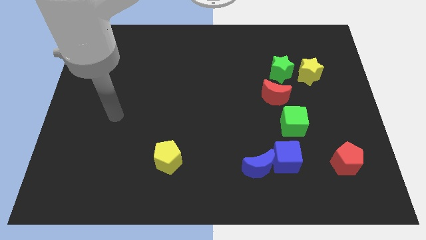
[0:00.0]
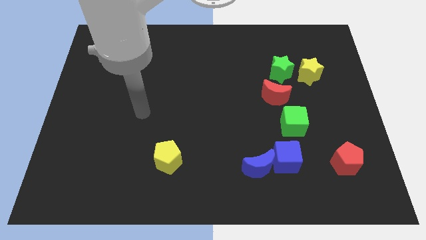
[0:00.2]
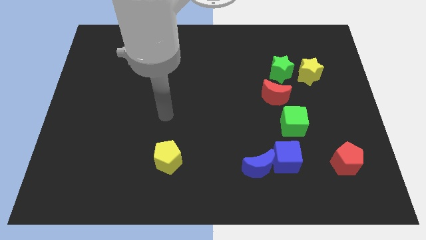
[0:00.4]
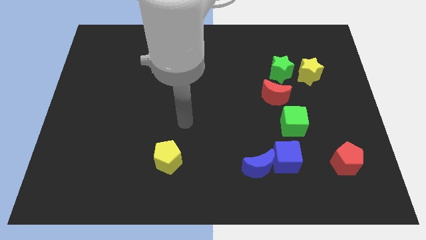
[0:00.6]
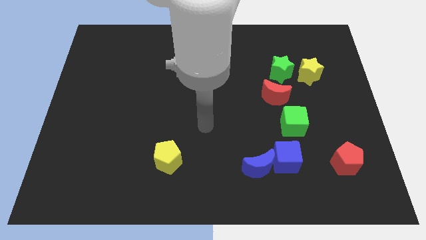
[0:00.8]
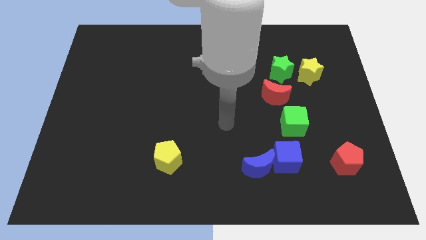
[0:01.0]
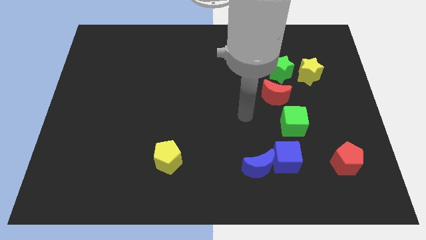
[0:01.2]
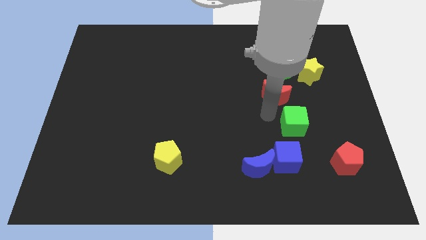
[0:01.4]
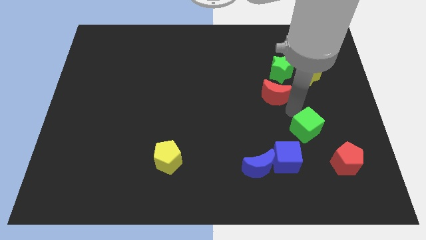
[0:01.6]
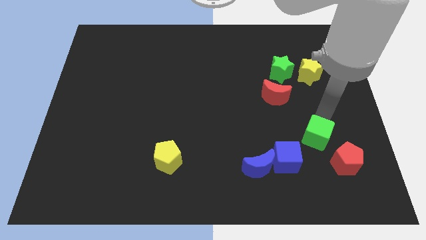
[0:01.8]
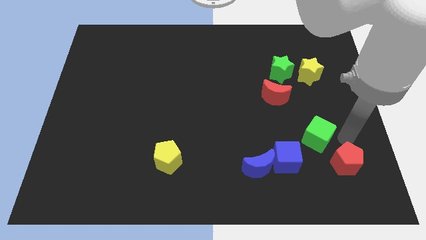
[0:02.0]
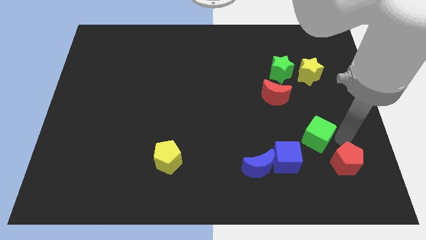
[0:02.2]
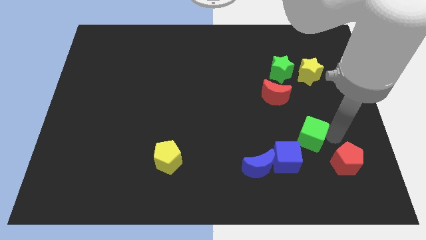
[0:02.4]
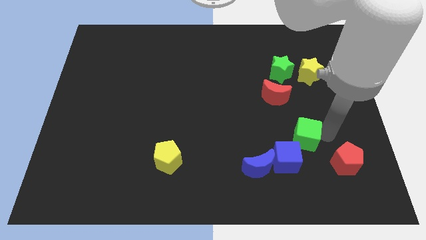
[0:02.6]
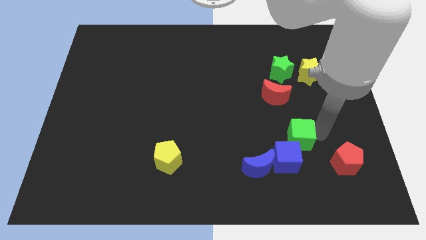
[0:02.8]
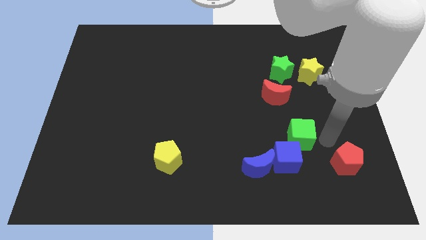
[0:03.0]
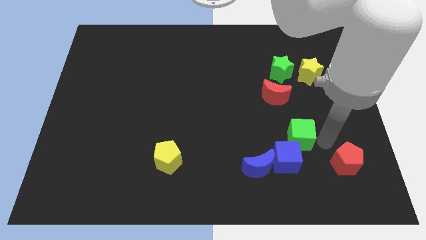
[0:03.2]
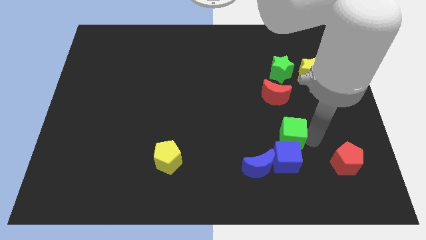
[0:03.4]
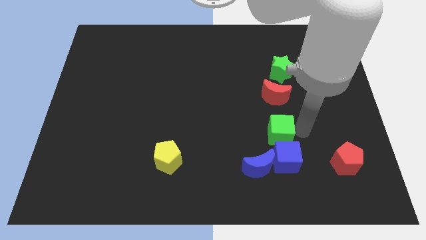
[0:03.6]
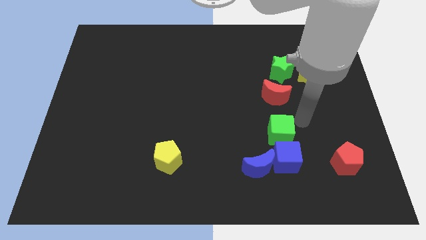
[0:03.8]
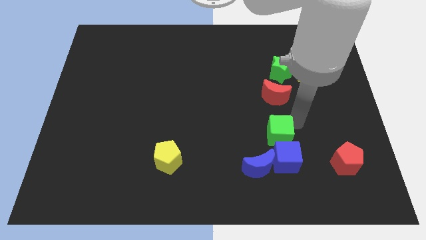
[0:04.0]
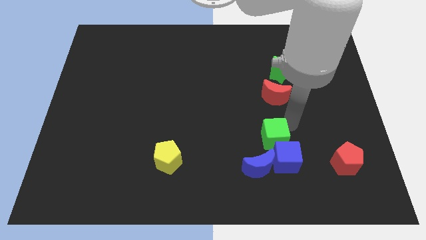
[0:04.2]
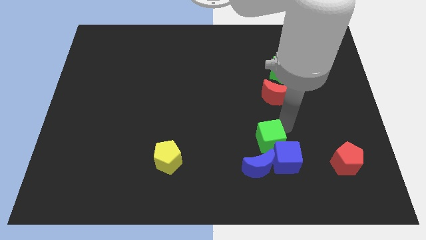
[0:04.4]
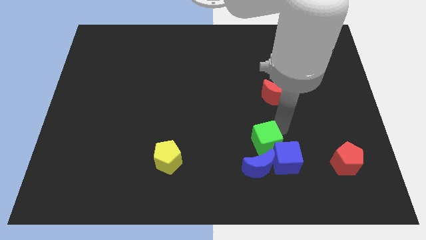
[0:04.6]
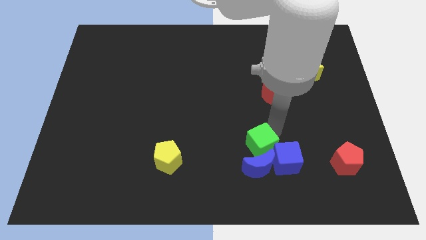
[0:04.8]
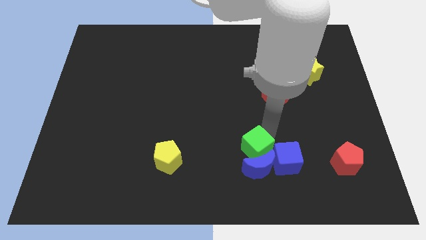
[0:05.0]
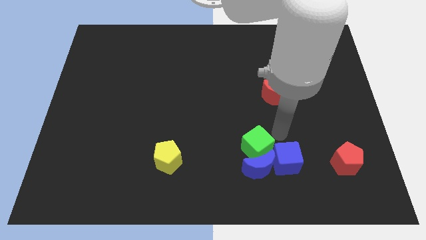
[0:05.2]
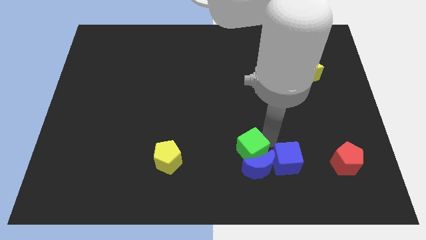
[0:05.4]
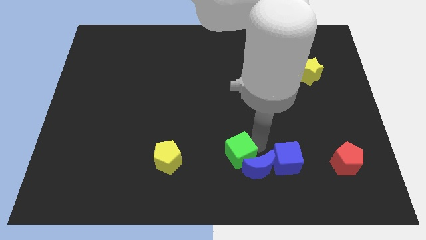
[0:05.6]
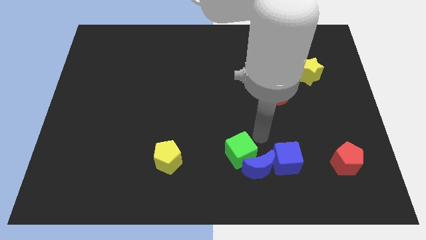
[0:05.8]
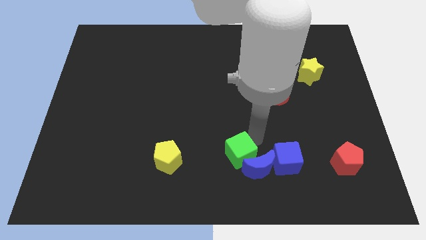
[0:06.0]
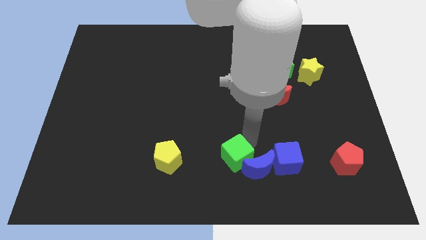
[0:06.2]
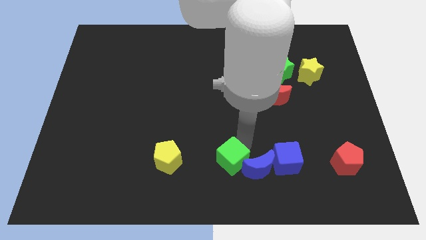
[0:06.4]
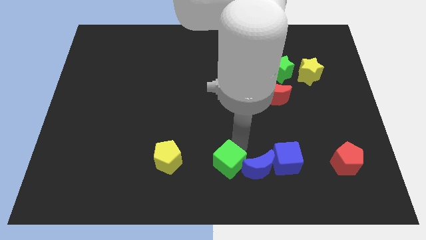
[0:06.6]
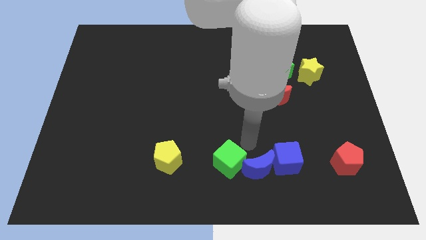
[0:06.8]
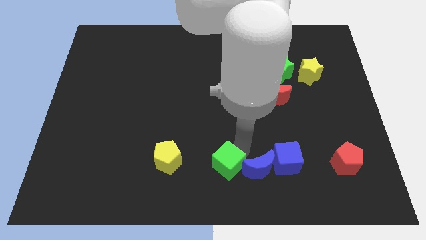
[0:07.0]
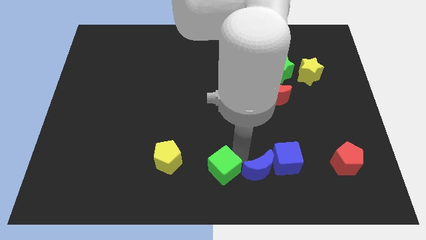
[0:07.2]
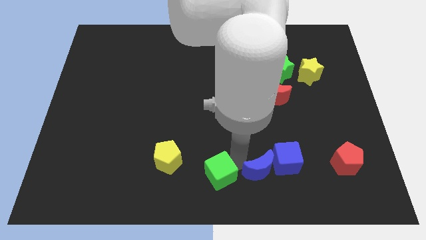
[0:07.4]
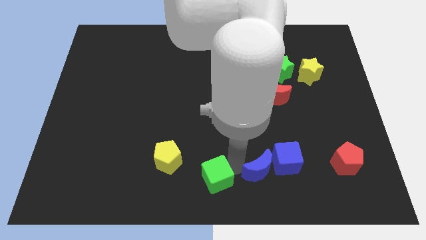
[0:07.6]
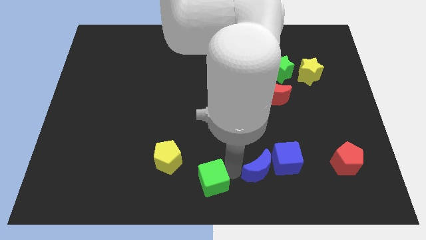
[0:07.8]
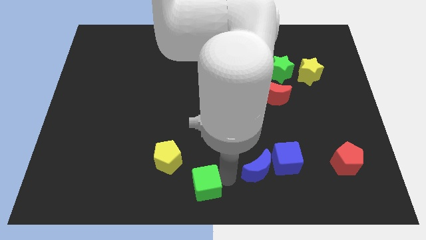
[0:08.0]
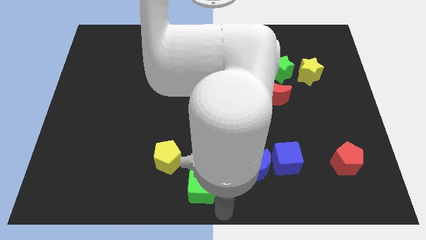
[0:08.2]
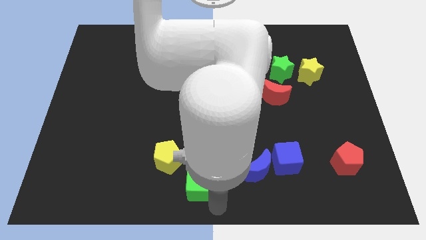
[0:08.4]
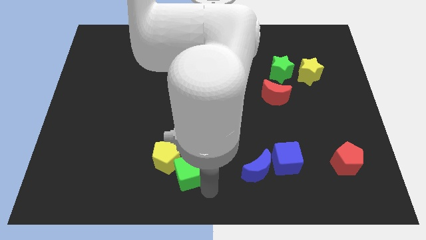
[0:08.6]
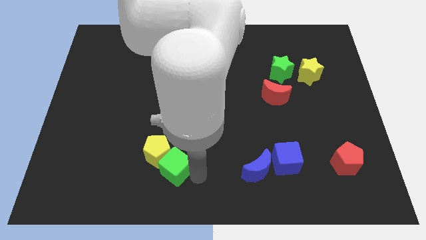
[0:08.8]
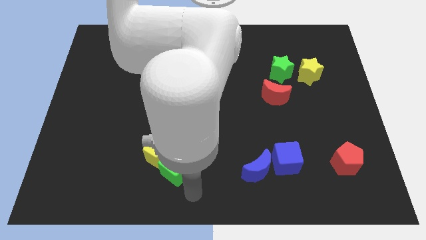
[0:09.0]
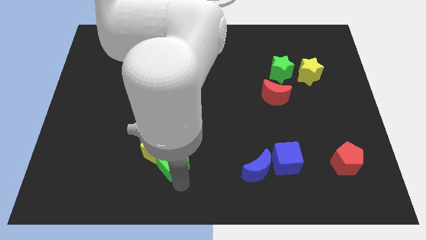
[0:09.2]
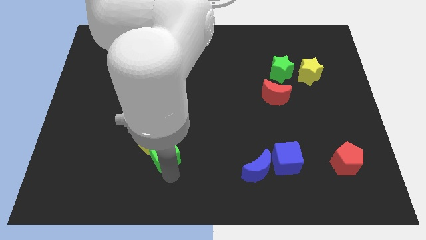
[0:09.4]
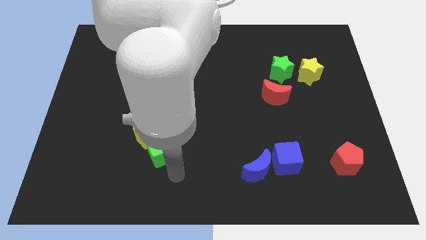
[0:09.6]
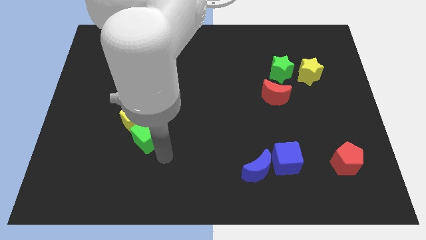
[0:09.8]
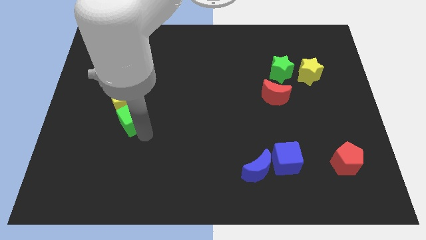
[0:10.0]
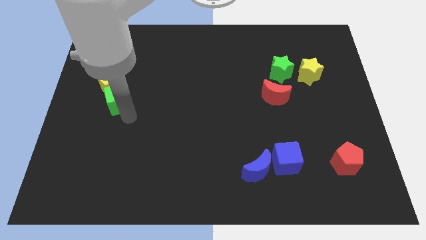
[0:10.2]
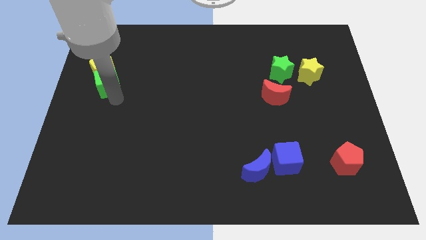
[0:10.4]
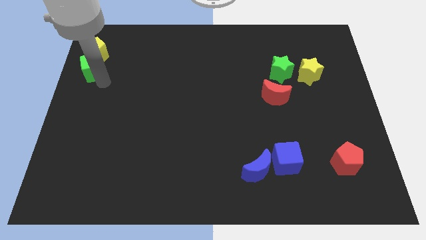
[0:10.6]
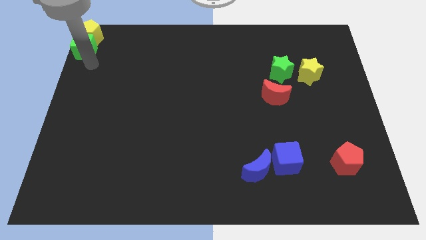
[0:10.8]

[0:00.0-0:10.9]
slide the green cube to the top left corner
